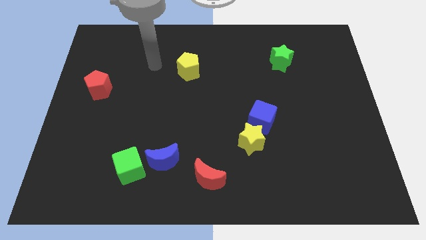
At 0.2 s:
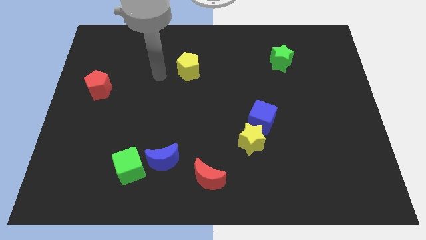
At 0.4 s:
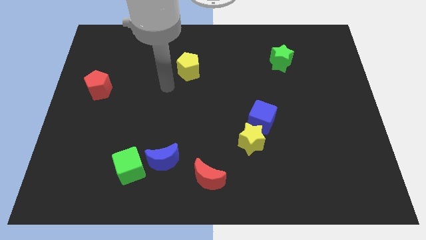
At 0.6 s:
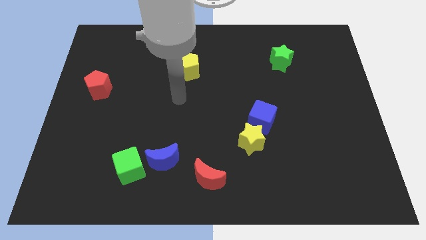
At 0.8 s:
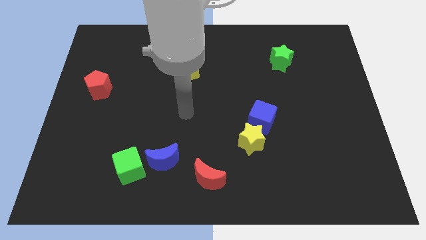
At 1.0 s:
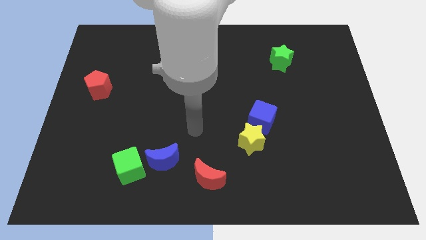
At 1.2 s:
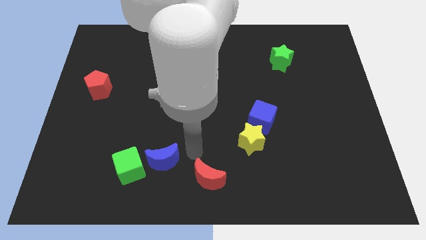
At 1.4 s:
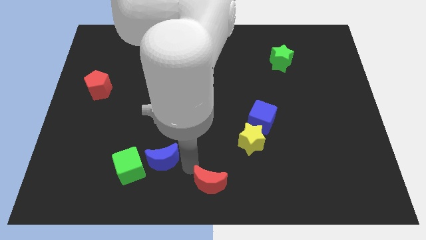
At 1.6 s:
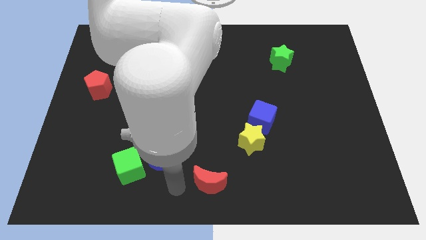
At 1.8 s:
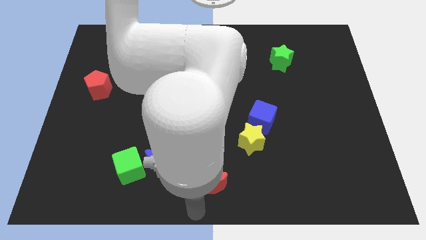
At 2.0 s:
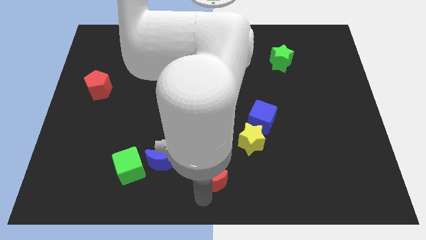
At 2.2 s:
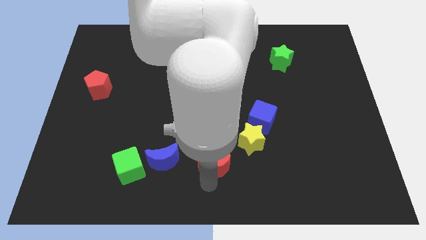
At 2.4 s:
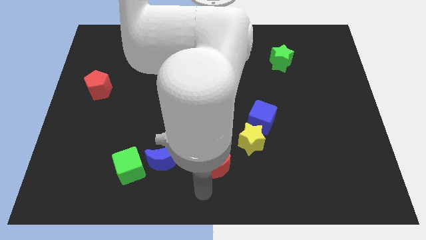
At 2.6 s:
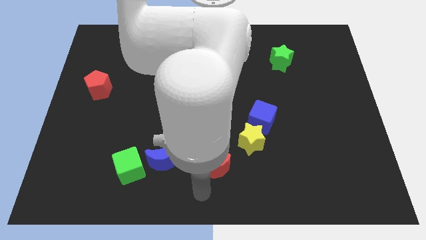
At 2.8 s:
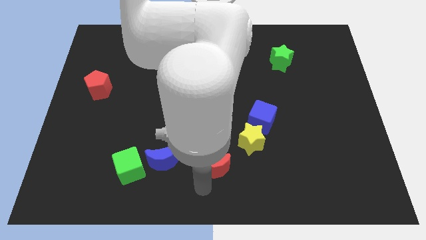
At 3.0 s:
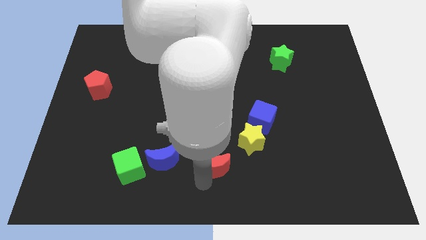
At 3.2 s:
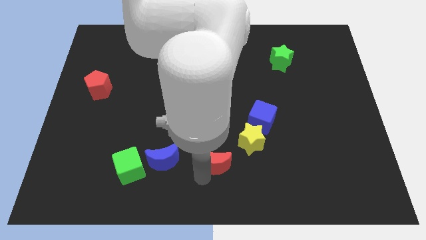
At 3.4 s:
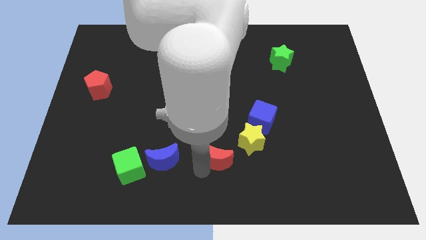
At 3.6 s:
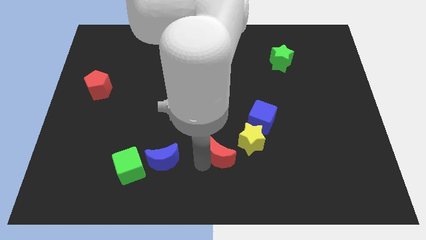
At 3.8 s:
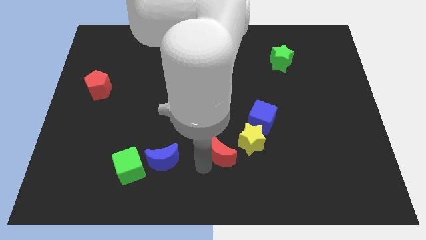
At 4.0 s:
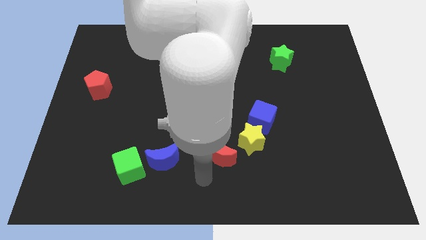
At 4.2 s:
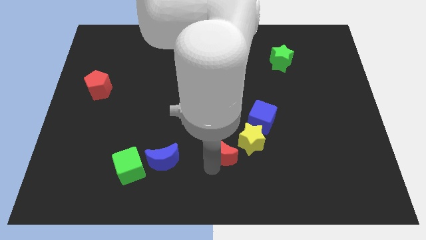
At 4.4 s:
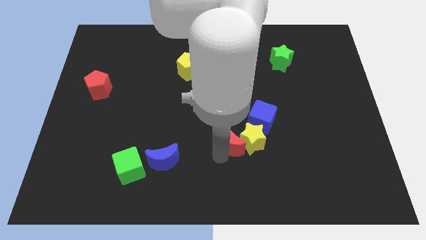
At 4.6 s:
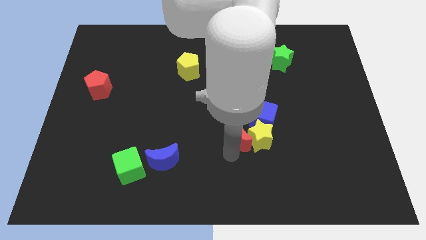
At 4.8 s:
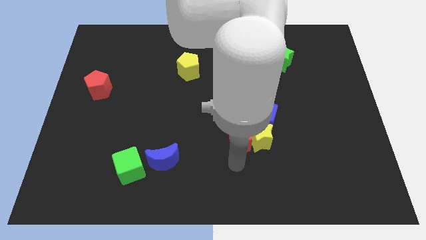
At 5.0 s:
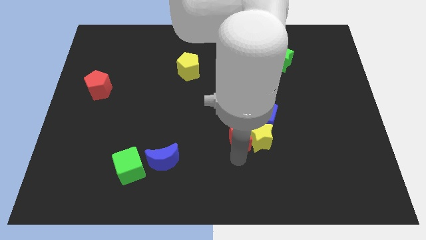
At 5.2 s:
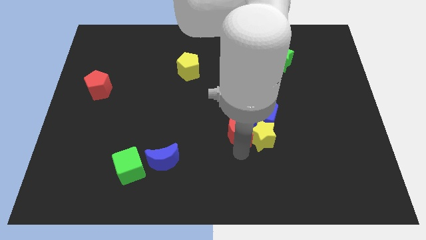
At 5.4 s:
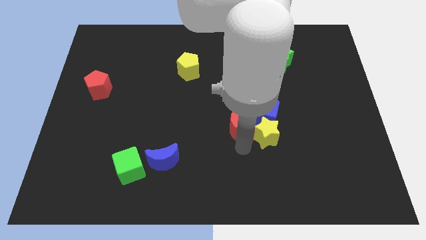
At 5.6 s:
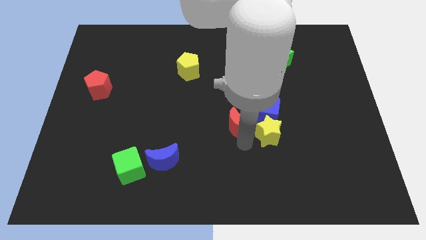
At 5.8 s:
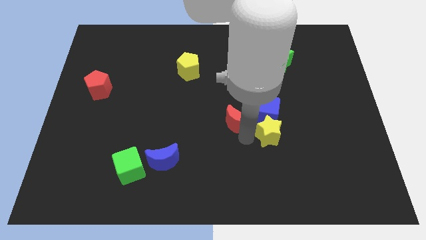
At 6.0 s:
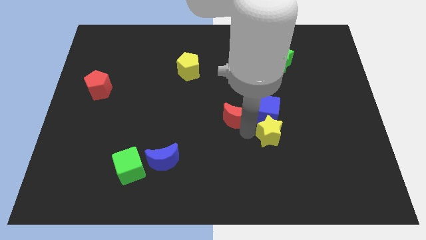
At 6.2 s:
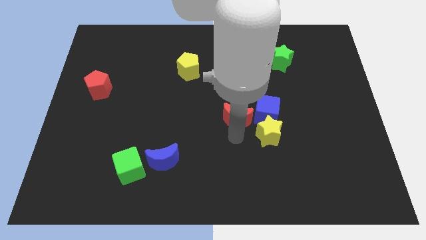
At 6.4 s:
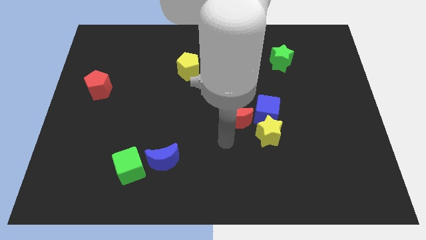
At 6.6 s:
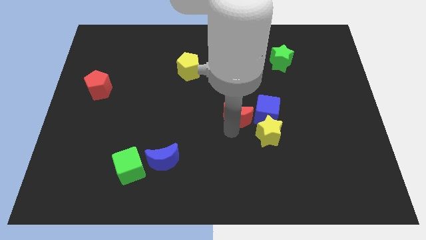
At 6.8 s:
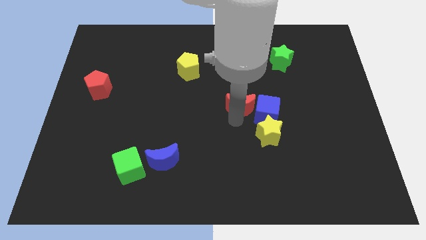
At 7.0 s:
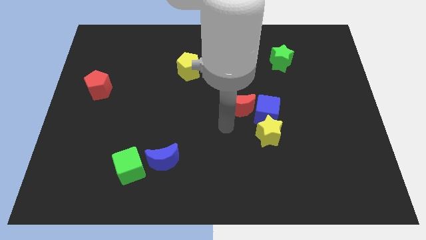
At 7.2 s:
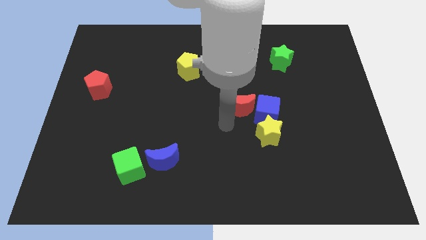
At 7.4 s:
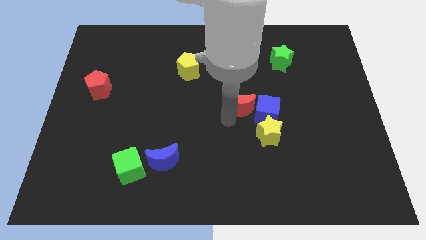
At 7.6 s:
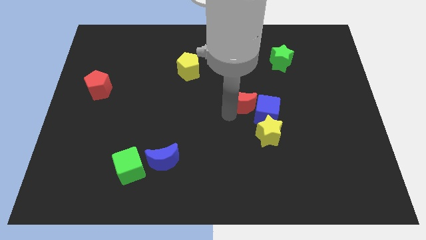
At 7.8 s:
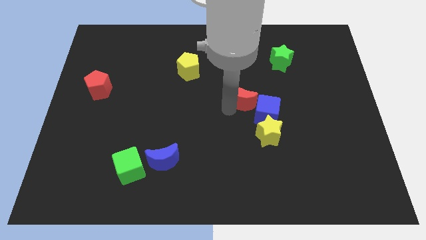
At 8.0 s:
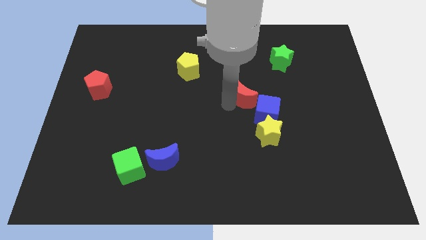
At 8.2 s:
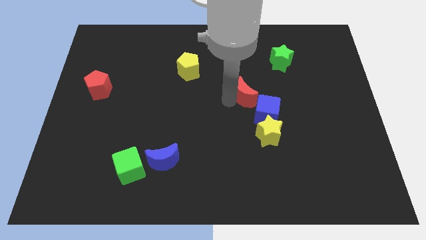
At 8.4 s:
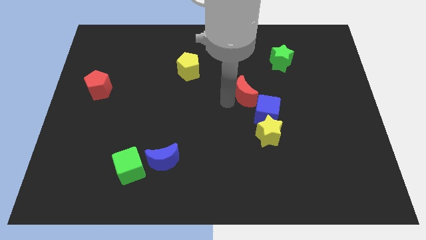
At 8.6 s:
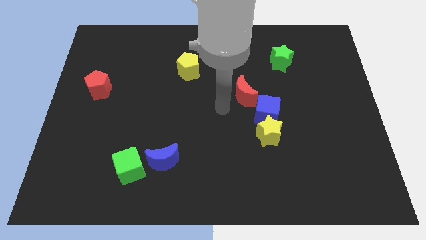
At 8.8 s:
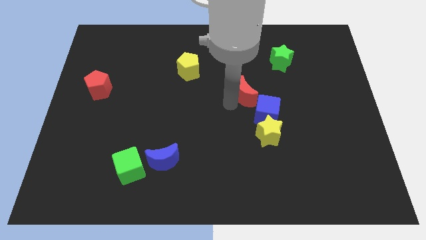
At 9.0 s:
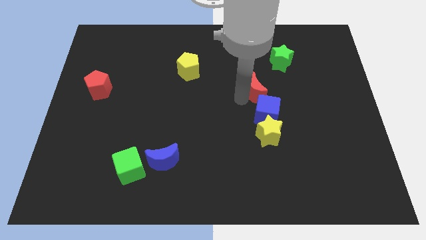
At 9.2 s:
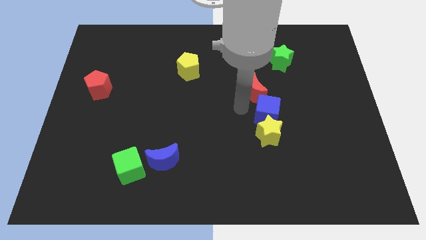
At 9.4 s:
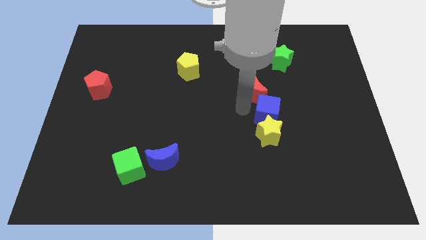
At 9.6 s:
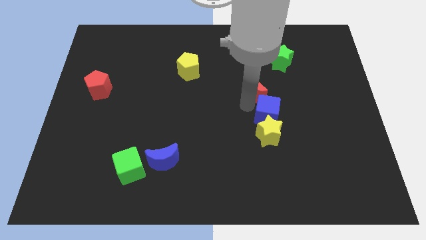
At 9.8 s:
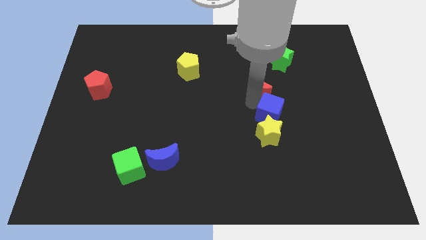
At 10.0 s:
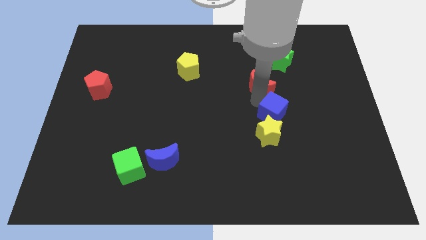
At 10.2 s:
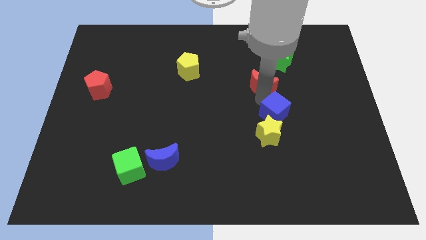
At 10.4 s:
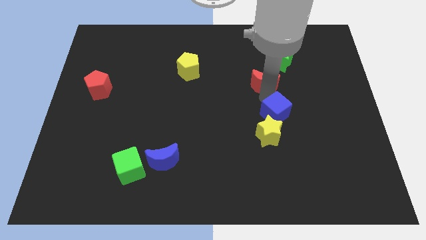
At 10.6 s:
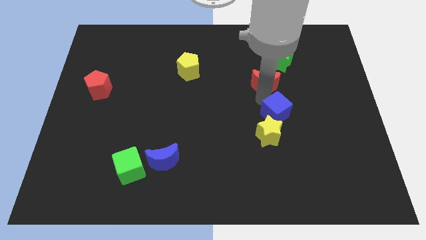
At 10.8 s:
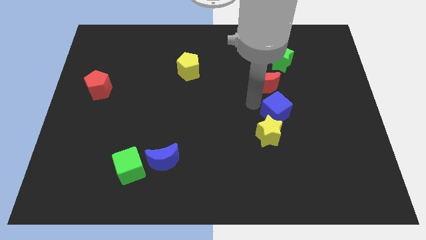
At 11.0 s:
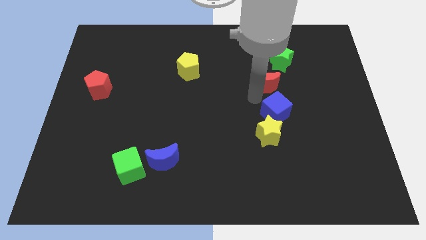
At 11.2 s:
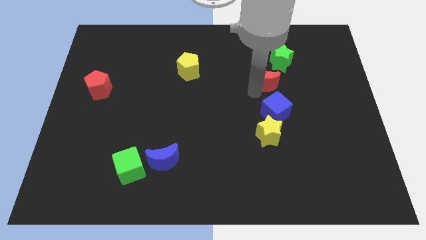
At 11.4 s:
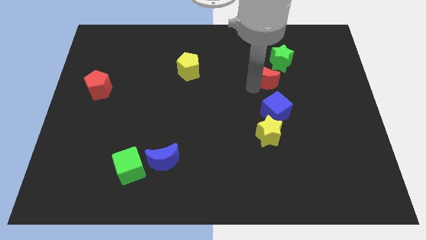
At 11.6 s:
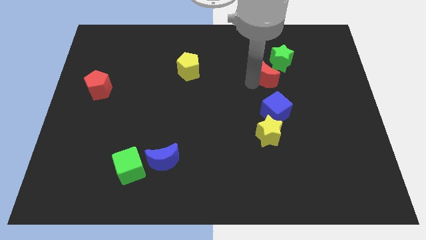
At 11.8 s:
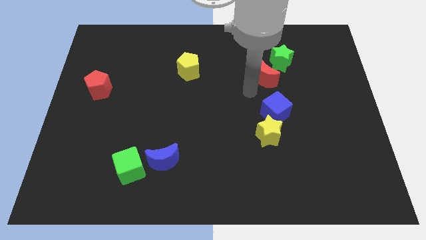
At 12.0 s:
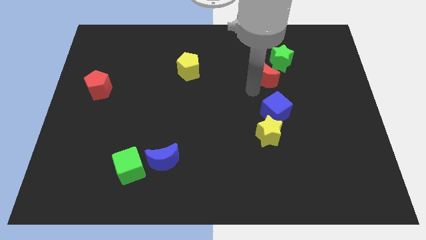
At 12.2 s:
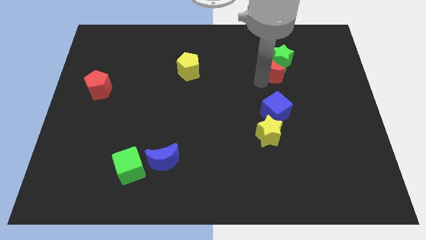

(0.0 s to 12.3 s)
put the red moon next to the green star

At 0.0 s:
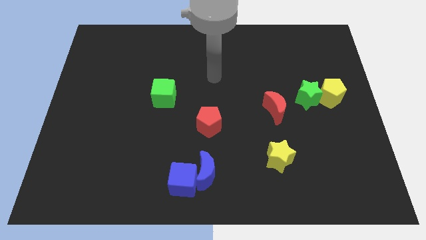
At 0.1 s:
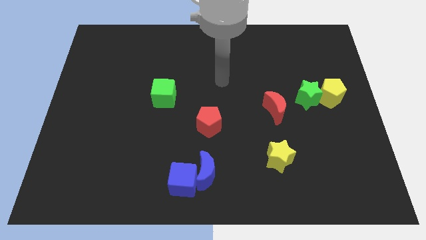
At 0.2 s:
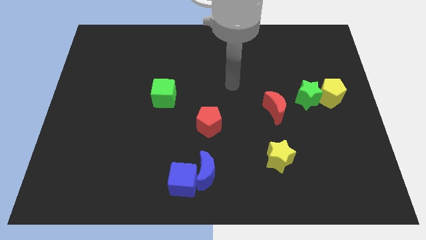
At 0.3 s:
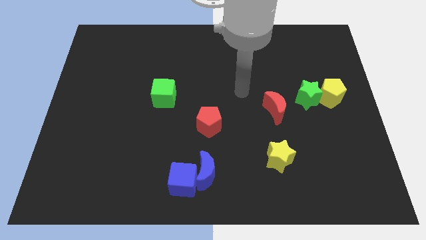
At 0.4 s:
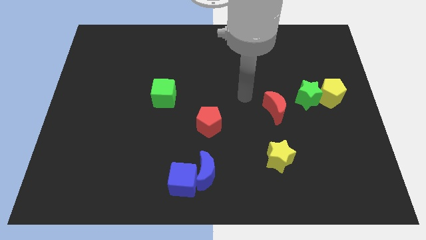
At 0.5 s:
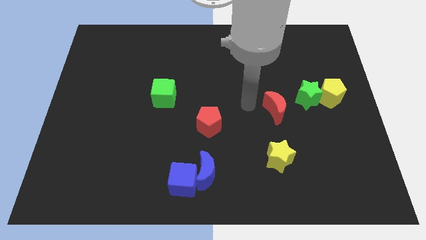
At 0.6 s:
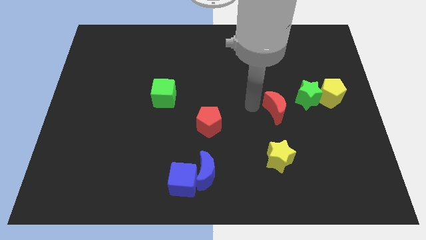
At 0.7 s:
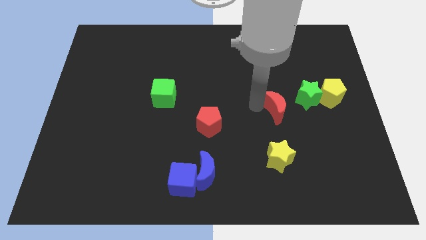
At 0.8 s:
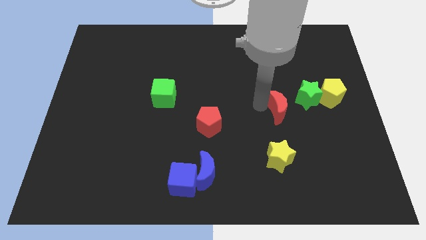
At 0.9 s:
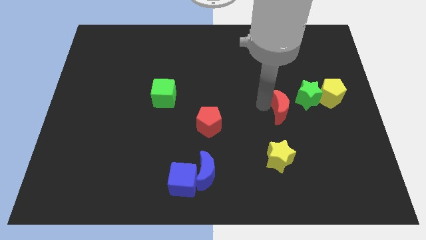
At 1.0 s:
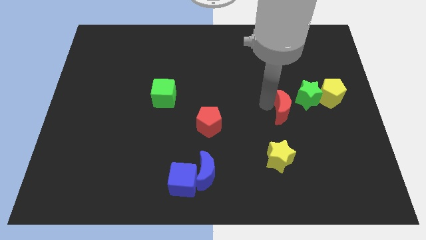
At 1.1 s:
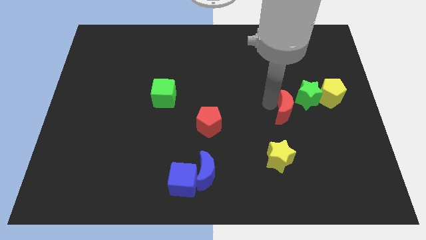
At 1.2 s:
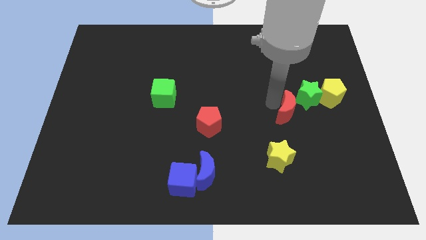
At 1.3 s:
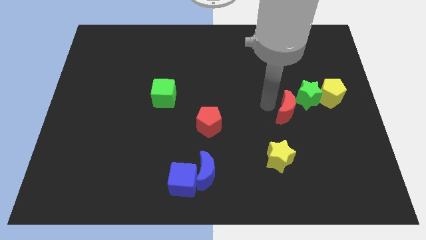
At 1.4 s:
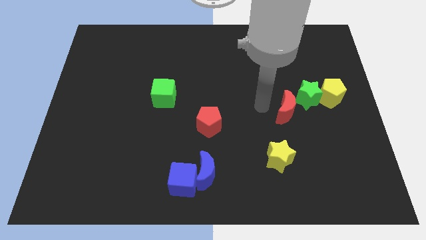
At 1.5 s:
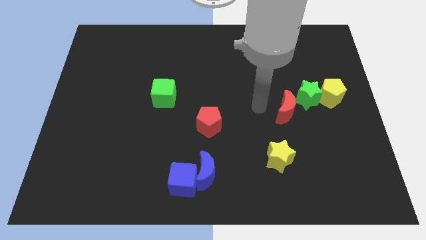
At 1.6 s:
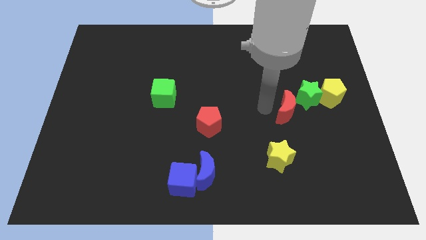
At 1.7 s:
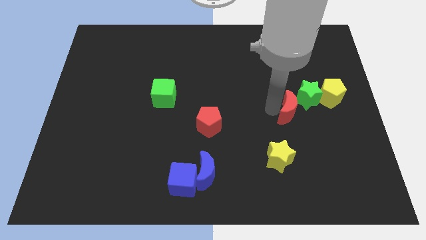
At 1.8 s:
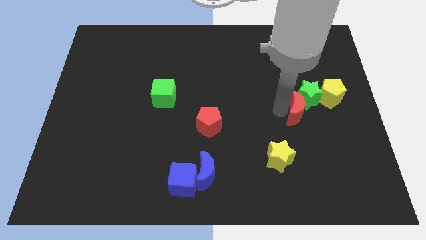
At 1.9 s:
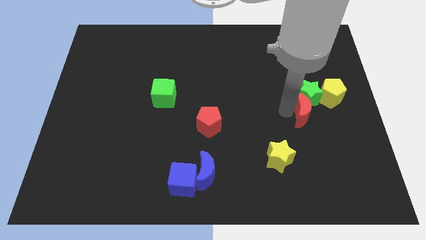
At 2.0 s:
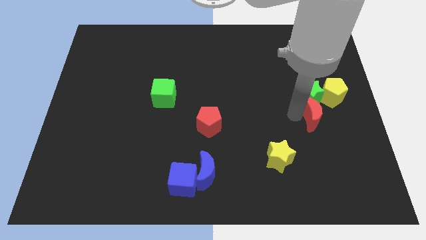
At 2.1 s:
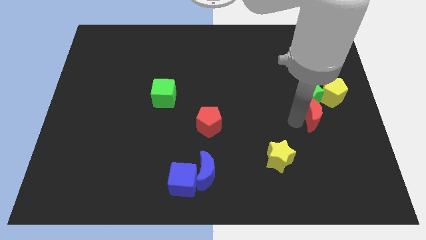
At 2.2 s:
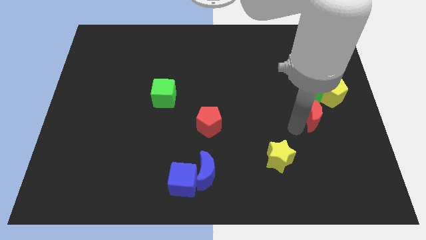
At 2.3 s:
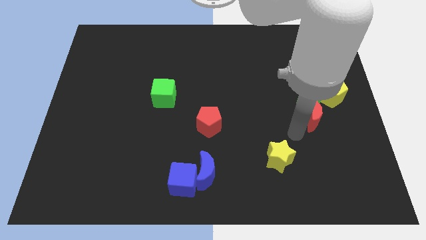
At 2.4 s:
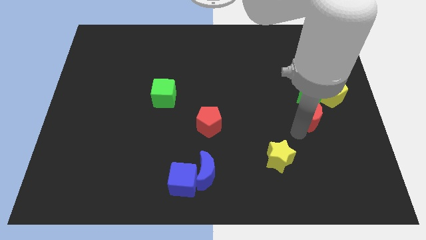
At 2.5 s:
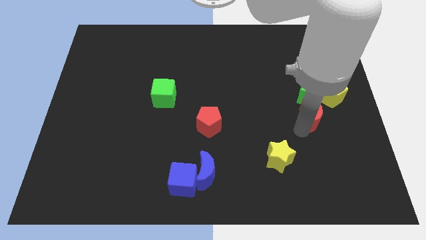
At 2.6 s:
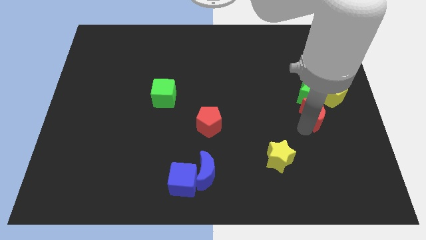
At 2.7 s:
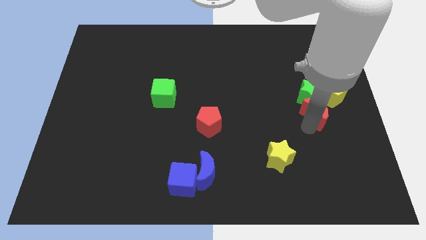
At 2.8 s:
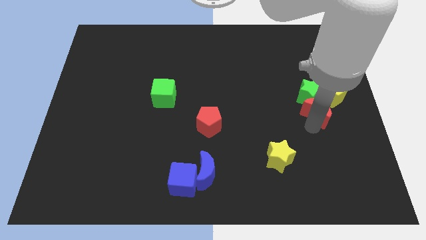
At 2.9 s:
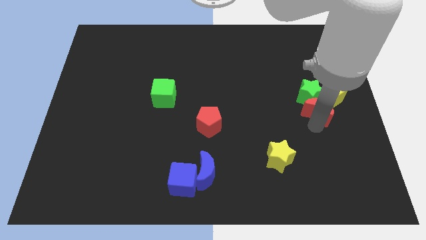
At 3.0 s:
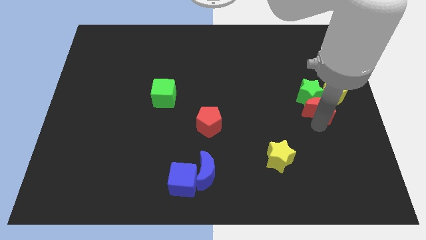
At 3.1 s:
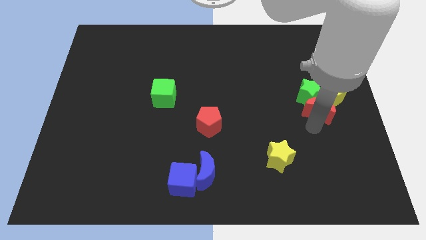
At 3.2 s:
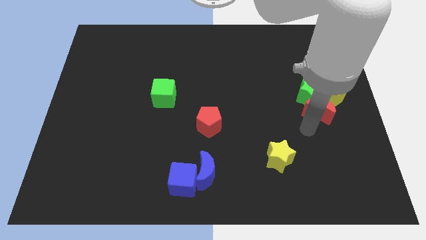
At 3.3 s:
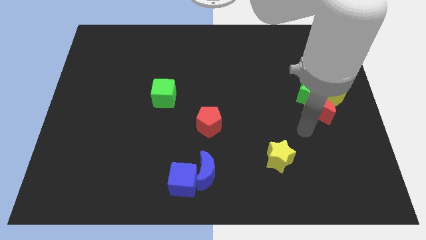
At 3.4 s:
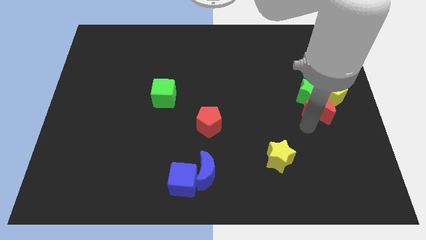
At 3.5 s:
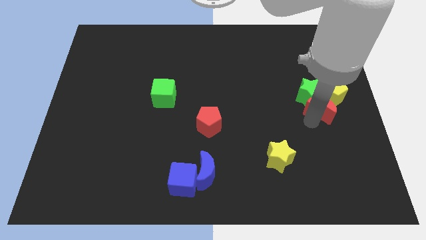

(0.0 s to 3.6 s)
slide the red moon next to the yellow pentagon
